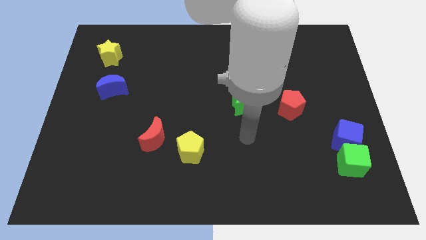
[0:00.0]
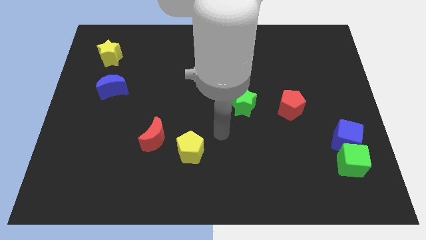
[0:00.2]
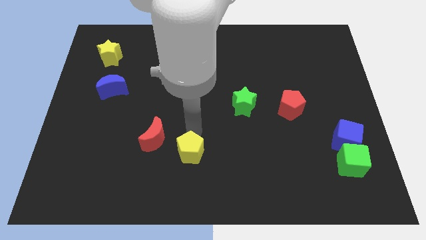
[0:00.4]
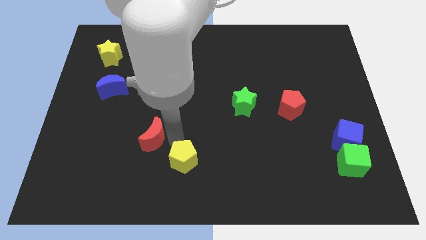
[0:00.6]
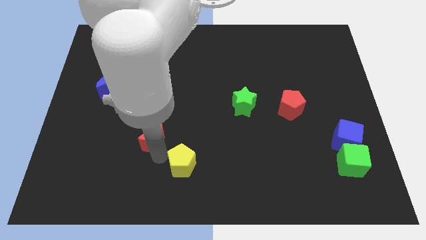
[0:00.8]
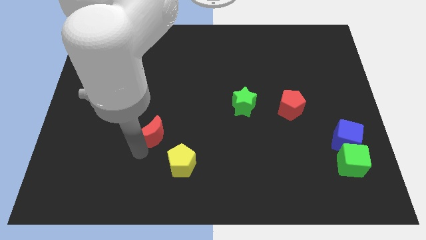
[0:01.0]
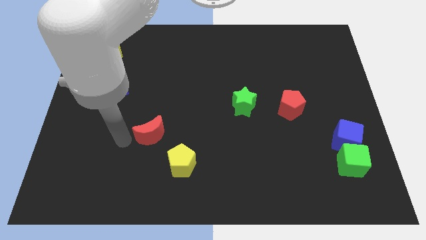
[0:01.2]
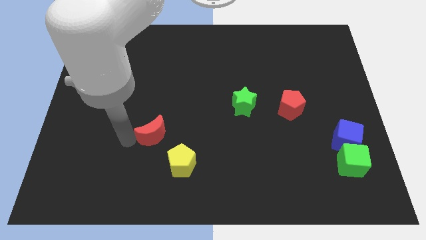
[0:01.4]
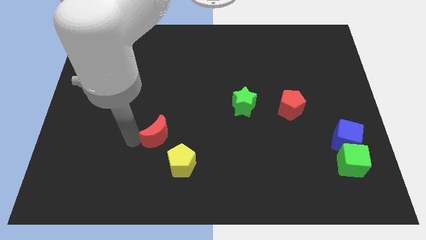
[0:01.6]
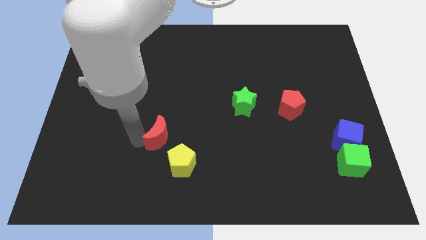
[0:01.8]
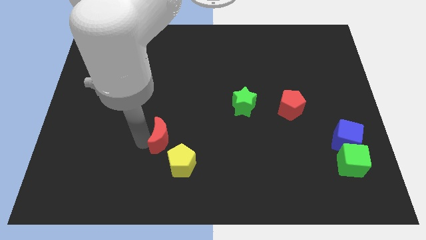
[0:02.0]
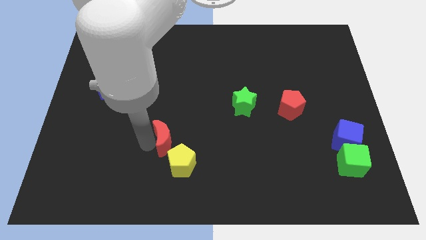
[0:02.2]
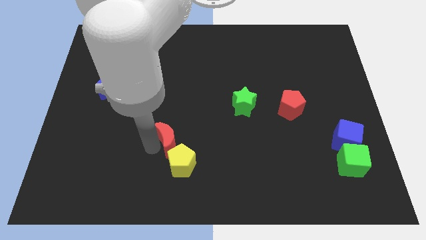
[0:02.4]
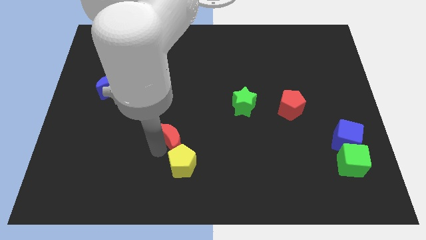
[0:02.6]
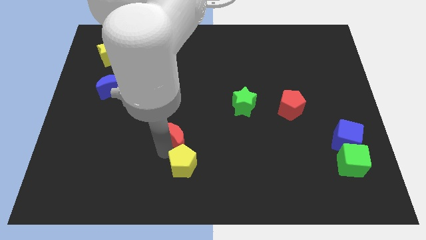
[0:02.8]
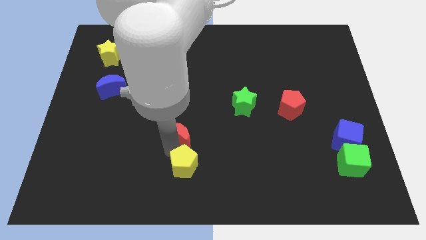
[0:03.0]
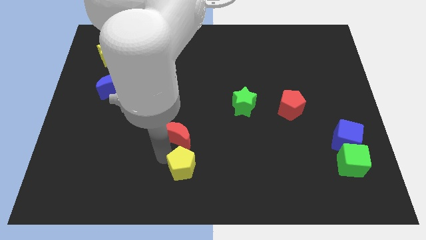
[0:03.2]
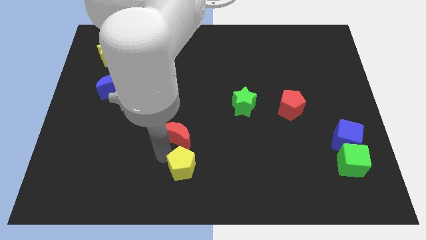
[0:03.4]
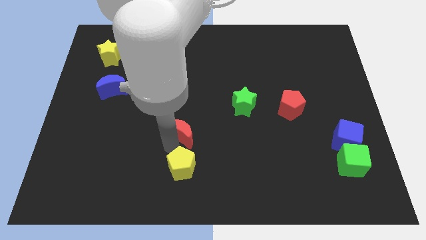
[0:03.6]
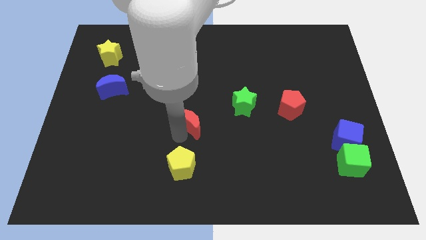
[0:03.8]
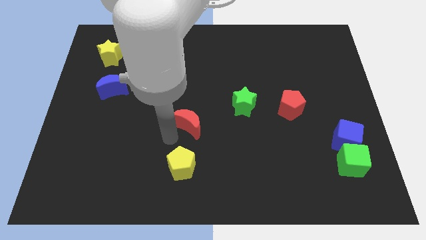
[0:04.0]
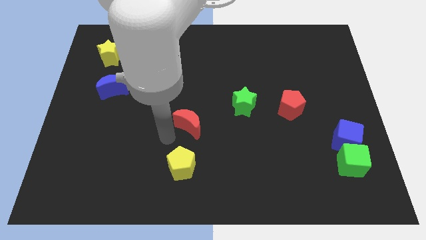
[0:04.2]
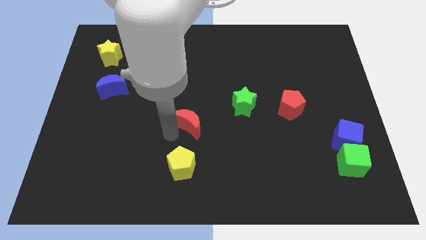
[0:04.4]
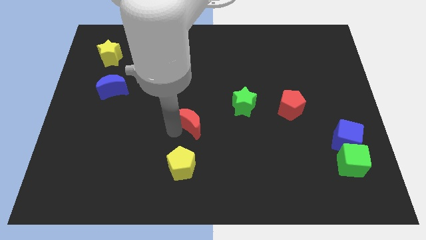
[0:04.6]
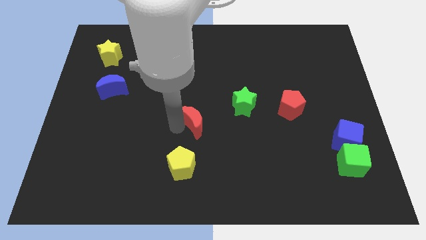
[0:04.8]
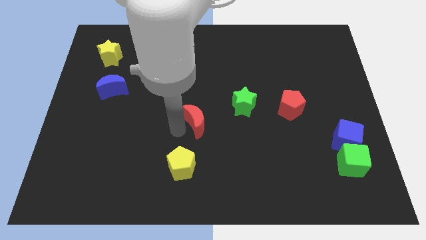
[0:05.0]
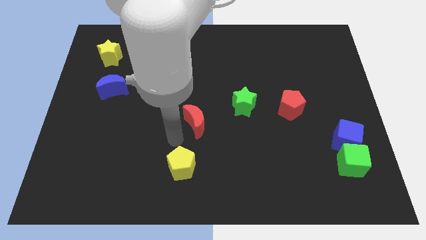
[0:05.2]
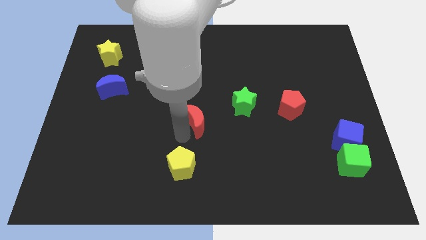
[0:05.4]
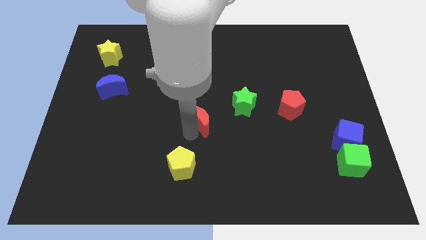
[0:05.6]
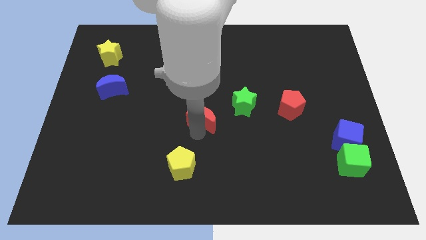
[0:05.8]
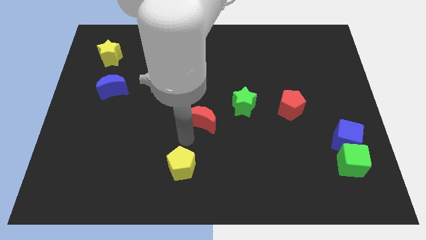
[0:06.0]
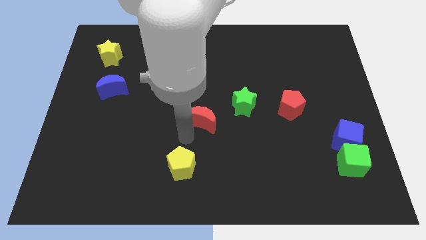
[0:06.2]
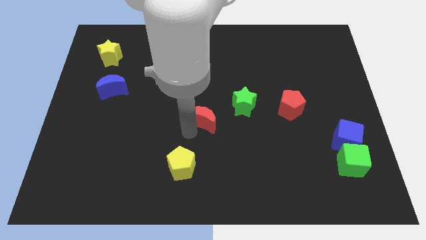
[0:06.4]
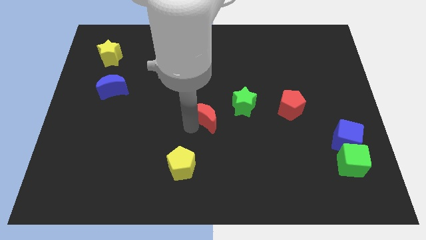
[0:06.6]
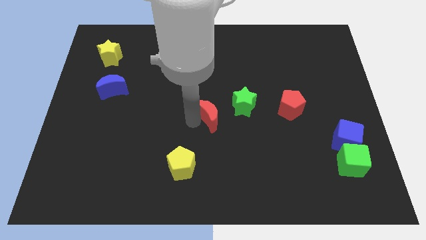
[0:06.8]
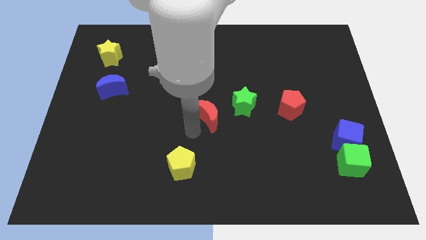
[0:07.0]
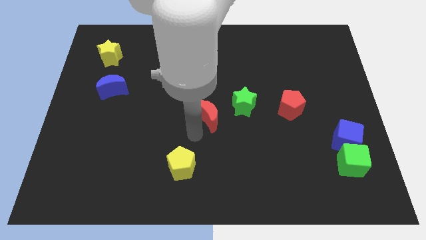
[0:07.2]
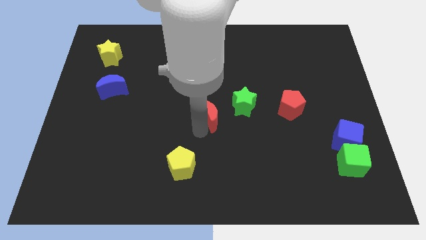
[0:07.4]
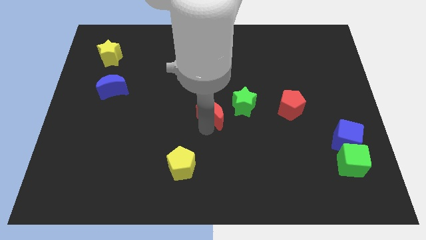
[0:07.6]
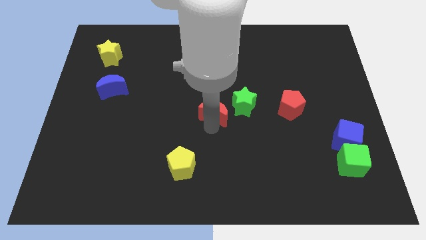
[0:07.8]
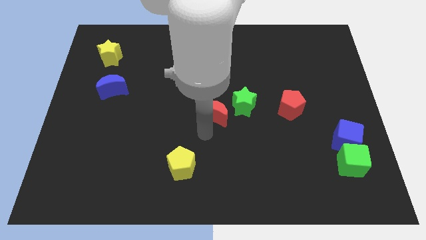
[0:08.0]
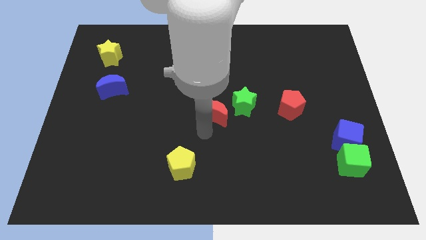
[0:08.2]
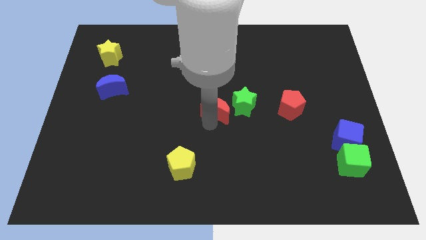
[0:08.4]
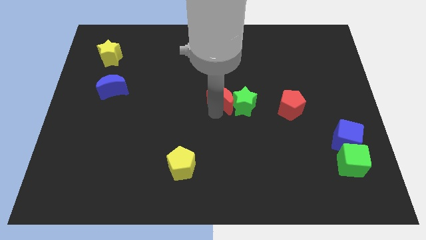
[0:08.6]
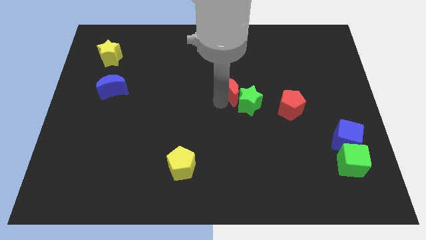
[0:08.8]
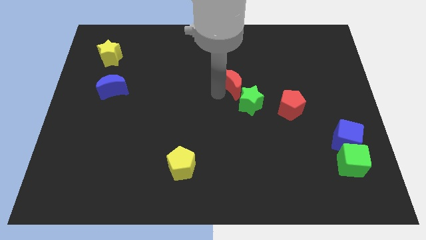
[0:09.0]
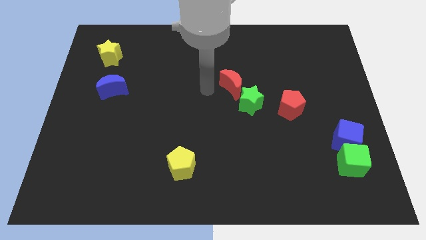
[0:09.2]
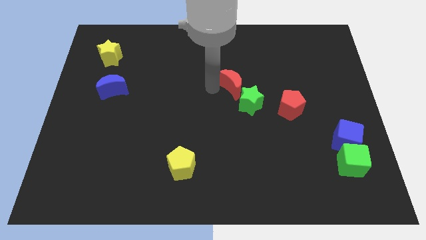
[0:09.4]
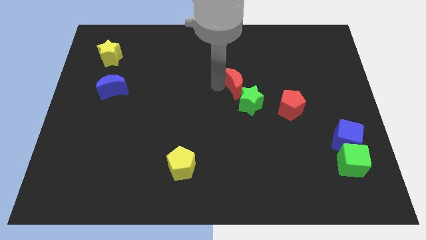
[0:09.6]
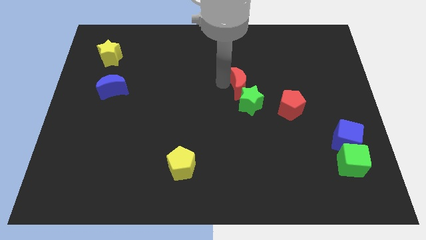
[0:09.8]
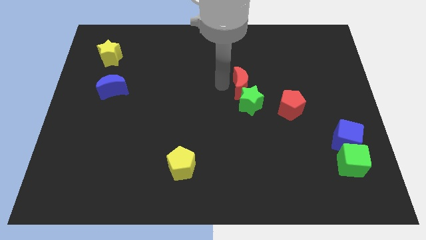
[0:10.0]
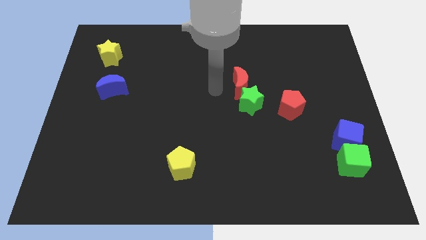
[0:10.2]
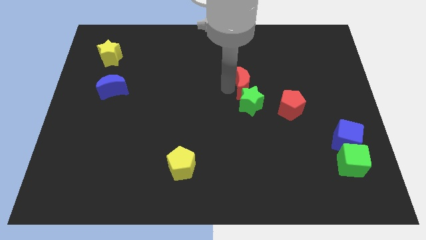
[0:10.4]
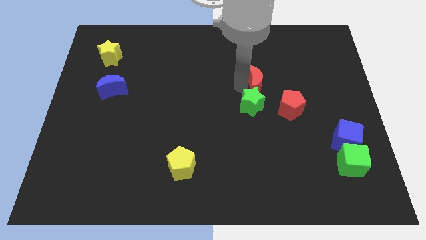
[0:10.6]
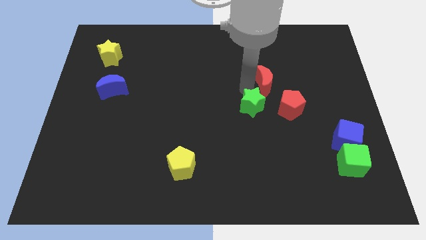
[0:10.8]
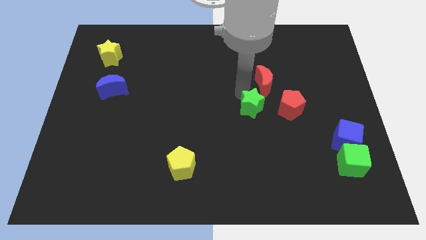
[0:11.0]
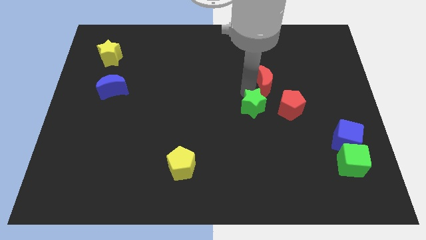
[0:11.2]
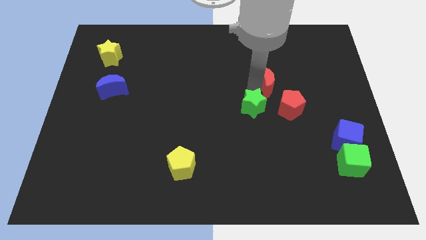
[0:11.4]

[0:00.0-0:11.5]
move the red moon to the top side of the red pentagon
